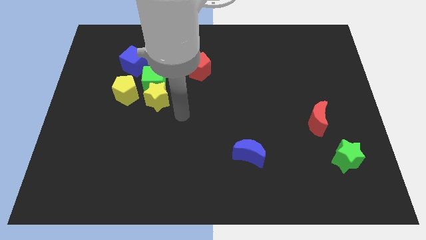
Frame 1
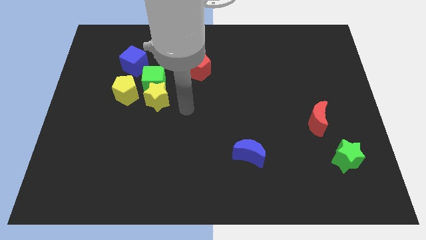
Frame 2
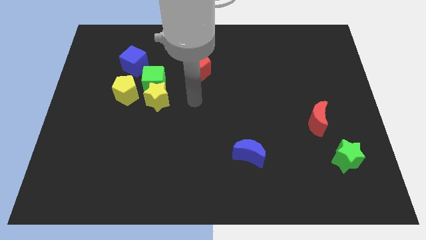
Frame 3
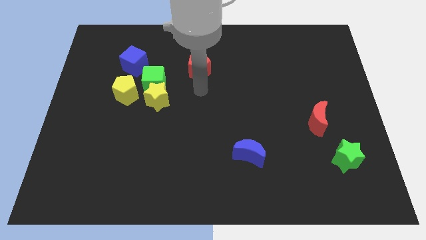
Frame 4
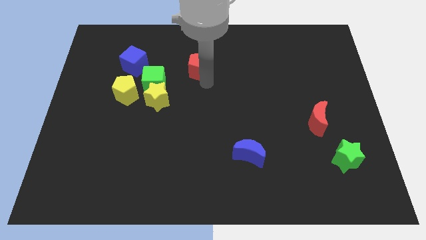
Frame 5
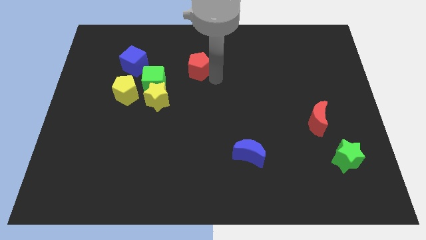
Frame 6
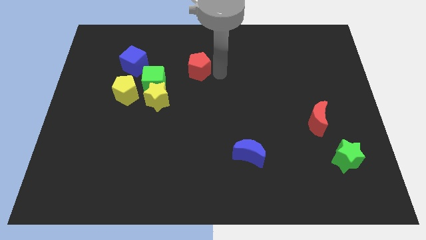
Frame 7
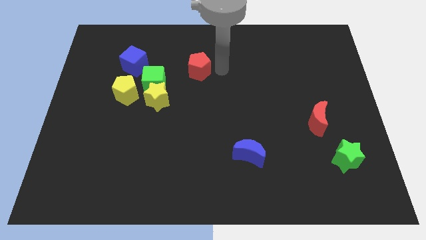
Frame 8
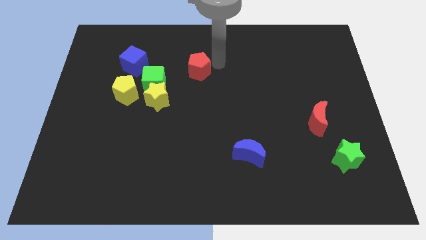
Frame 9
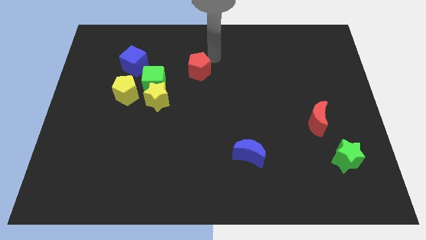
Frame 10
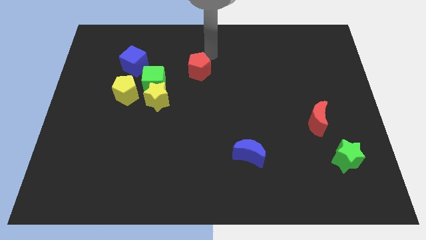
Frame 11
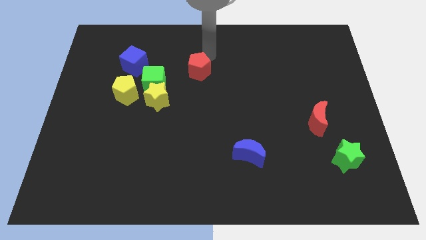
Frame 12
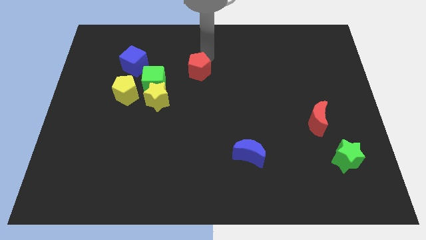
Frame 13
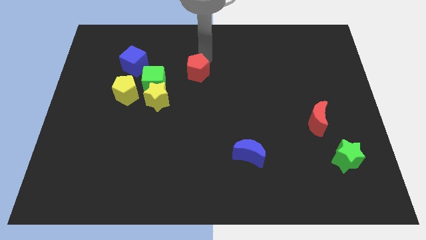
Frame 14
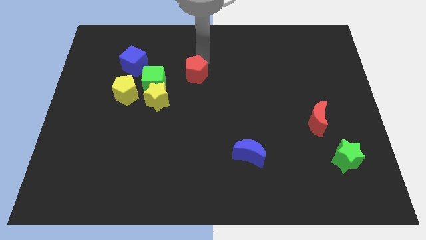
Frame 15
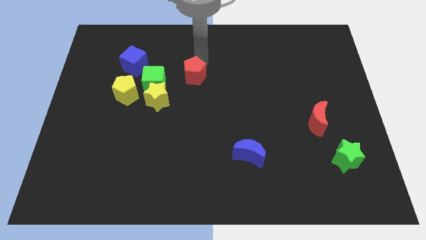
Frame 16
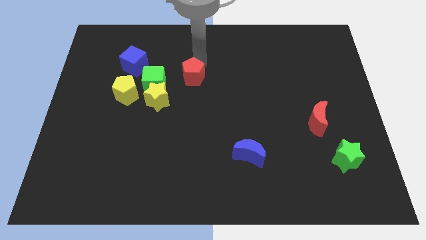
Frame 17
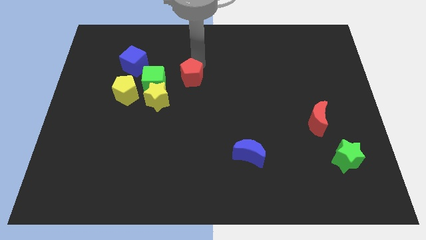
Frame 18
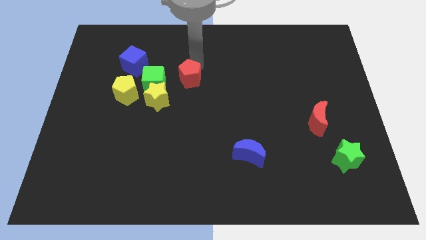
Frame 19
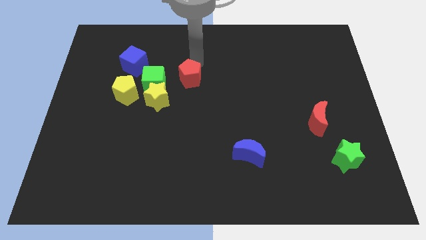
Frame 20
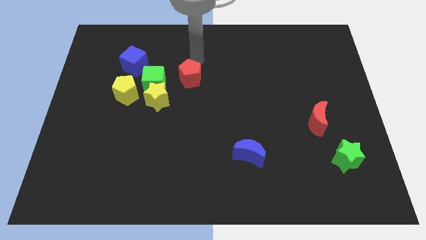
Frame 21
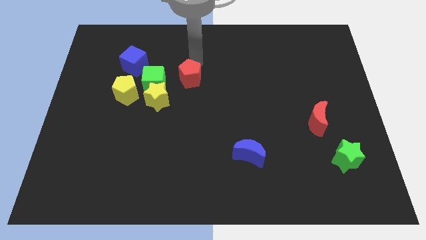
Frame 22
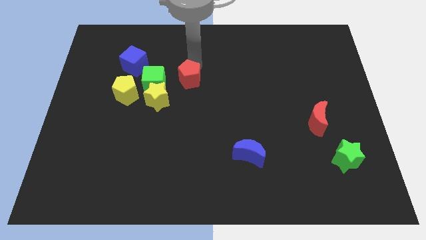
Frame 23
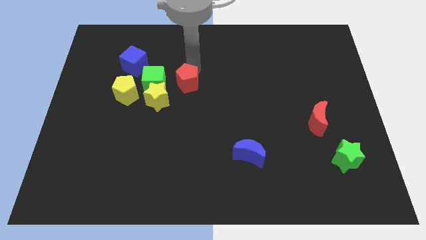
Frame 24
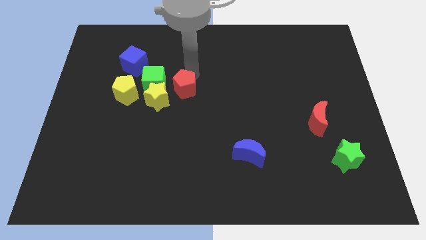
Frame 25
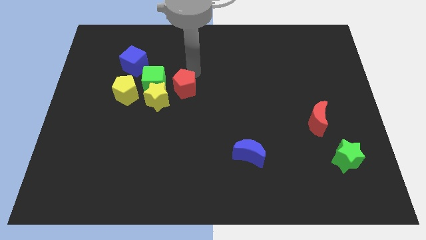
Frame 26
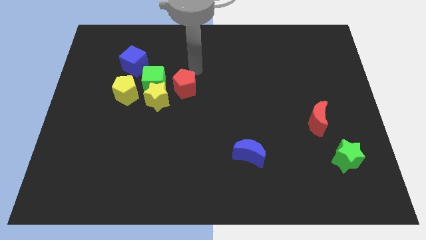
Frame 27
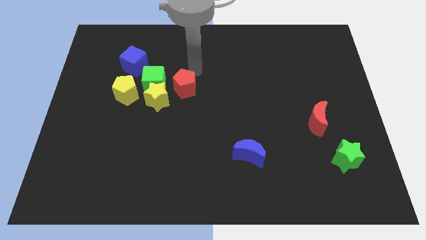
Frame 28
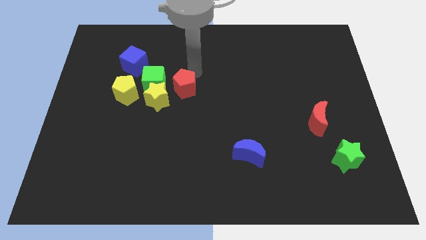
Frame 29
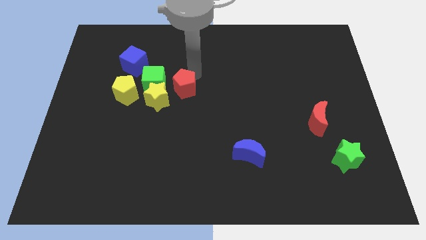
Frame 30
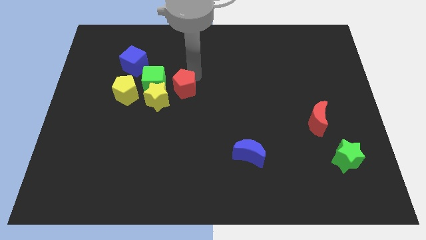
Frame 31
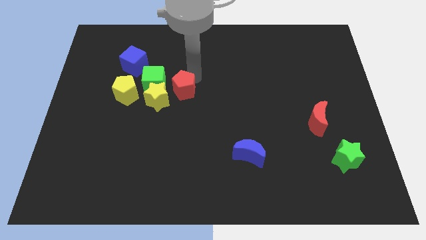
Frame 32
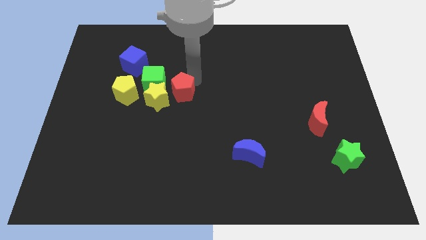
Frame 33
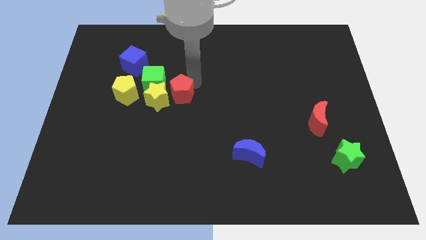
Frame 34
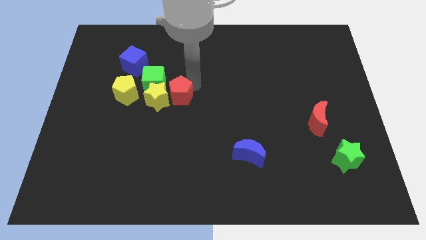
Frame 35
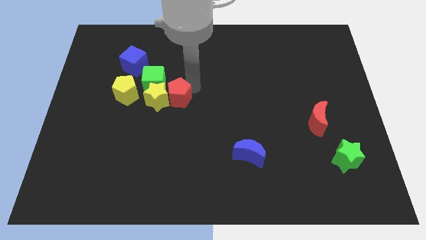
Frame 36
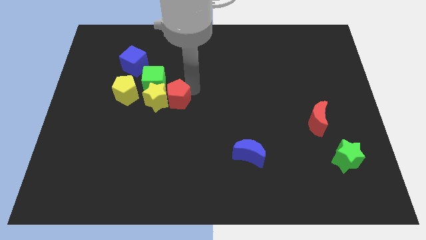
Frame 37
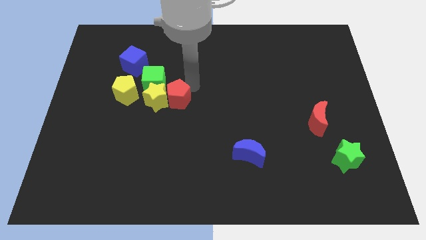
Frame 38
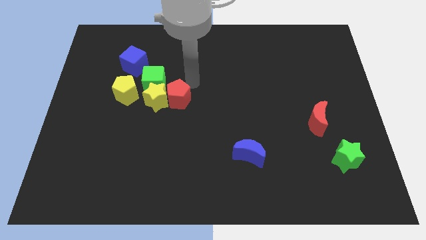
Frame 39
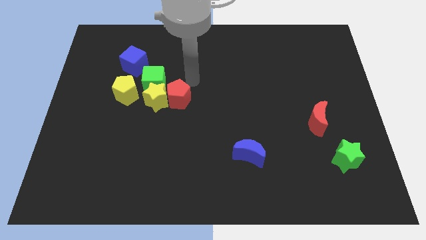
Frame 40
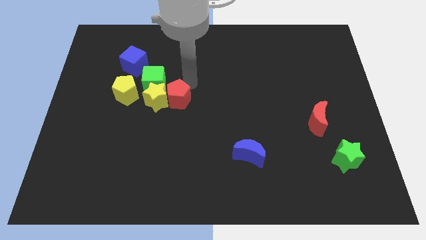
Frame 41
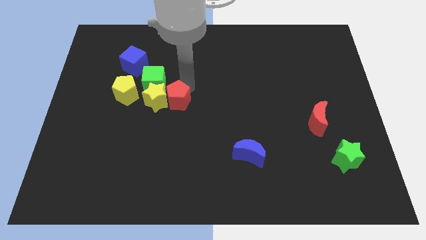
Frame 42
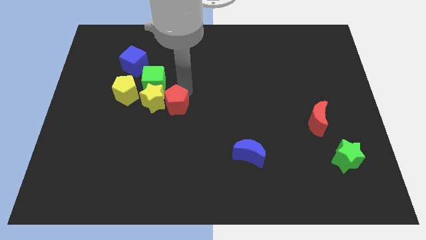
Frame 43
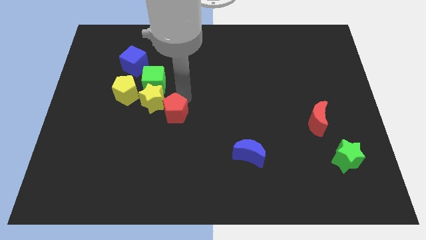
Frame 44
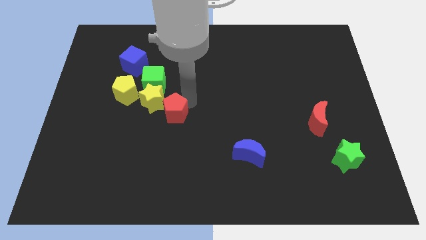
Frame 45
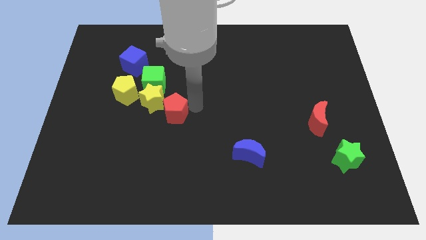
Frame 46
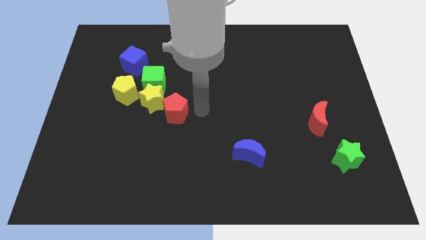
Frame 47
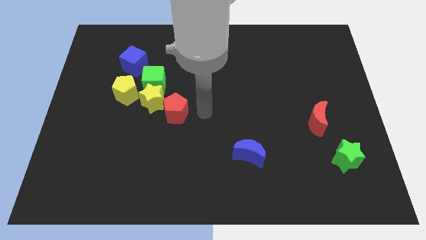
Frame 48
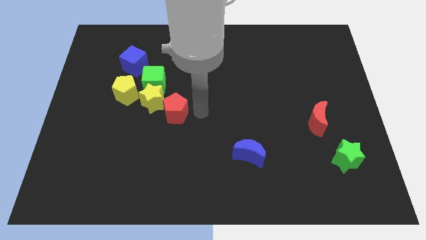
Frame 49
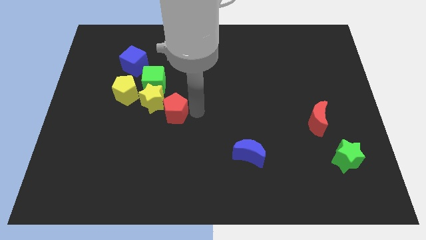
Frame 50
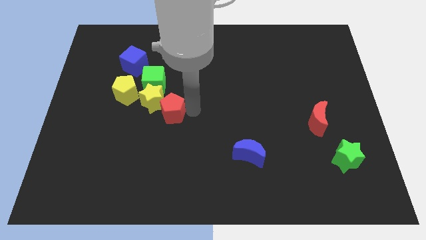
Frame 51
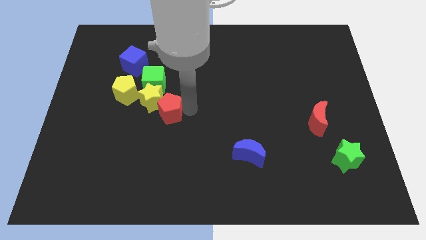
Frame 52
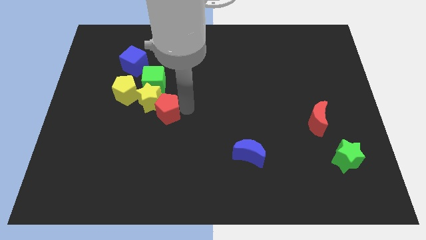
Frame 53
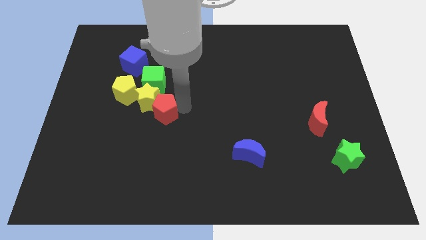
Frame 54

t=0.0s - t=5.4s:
push the red pentagon to the bottom right of the yellow pentagon

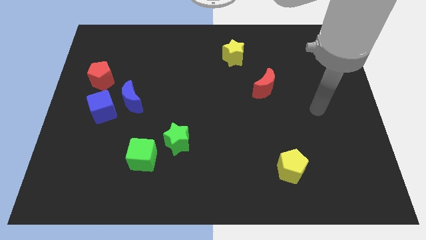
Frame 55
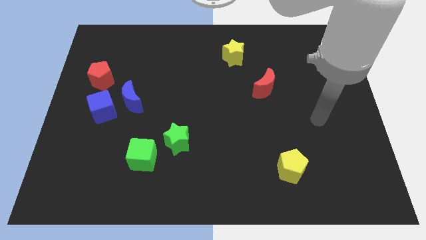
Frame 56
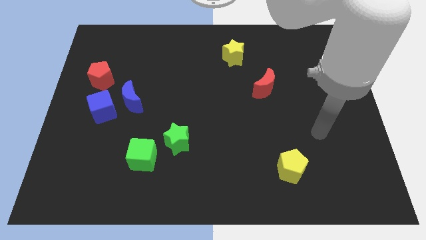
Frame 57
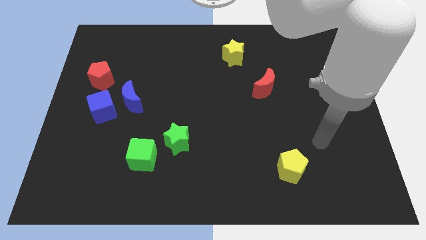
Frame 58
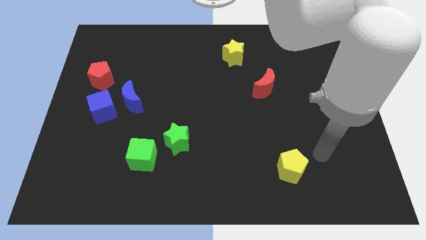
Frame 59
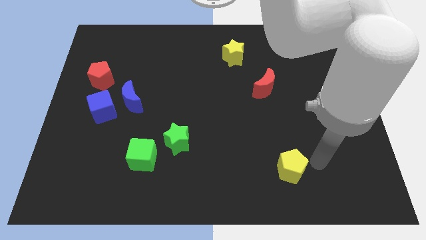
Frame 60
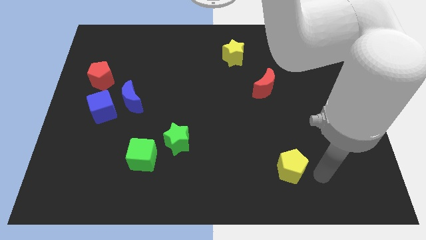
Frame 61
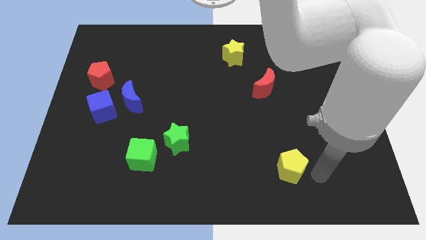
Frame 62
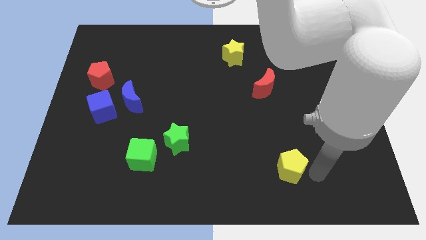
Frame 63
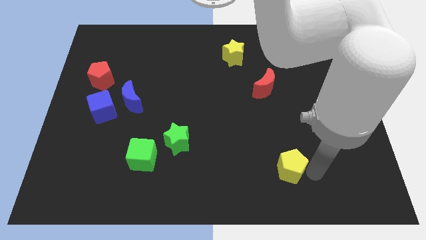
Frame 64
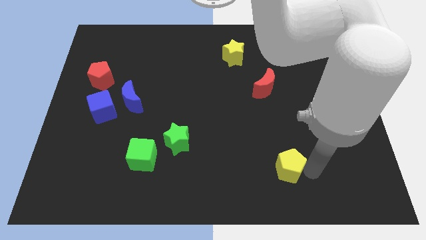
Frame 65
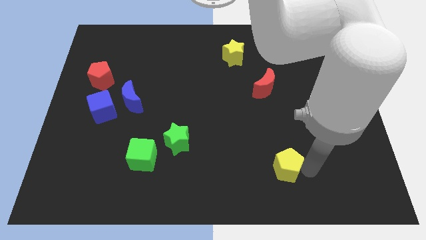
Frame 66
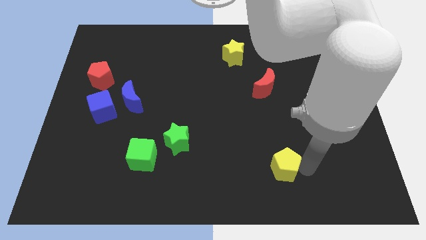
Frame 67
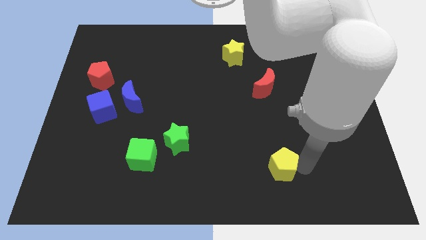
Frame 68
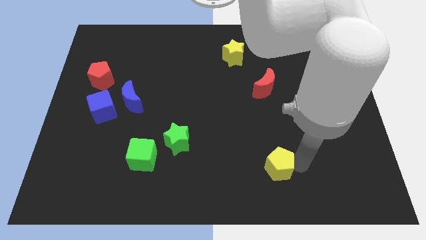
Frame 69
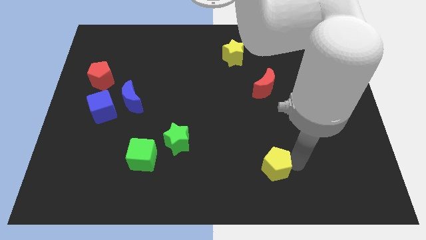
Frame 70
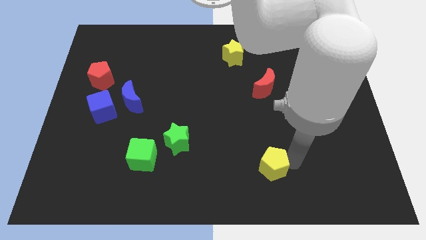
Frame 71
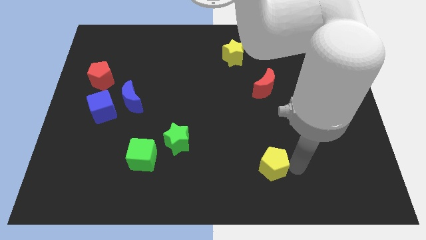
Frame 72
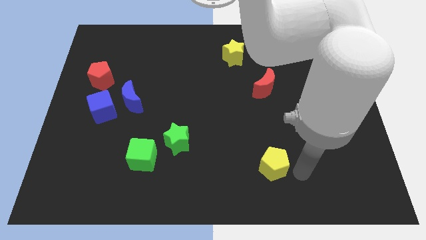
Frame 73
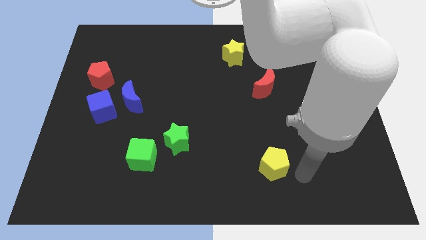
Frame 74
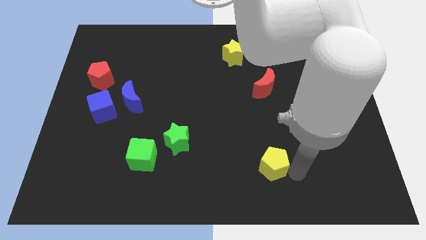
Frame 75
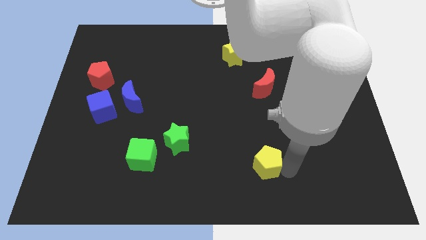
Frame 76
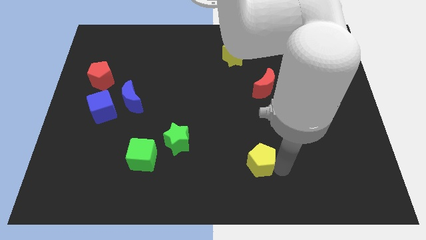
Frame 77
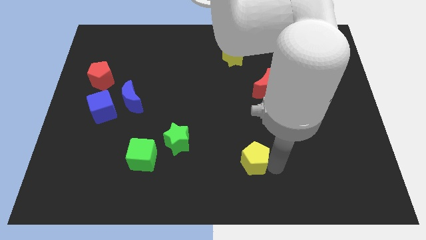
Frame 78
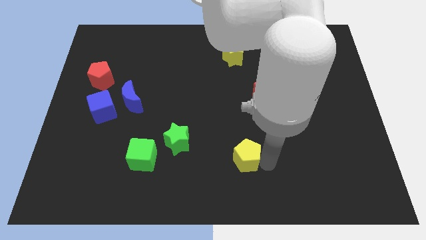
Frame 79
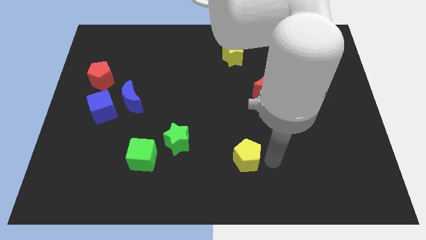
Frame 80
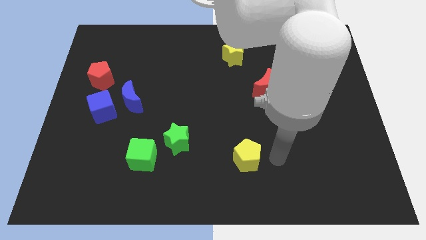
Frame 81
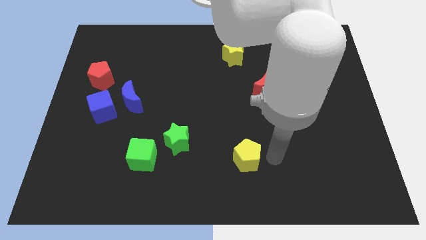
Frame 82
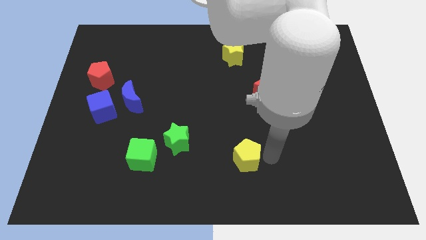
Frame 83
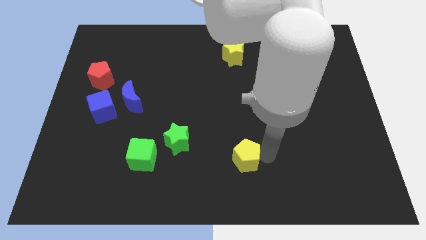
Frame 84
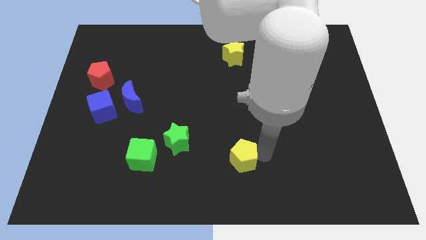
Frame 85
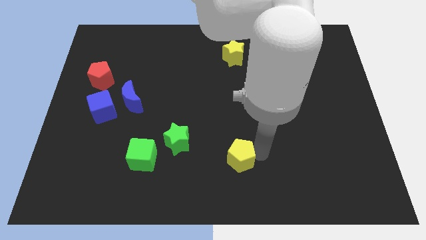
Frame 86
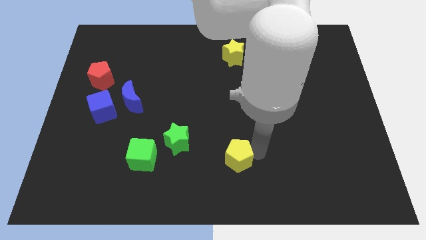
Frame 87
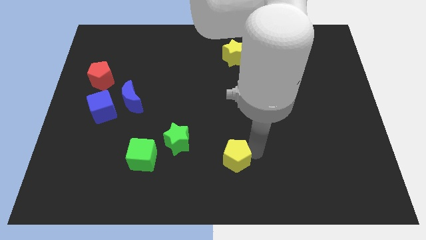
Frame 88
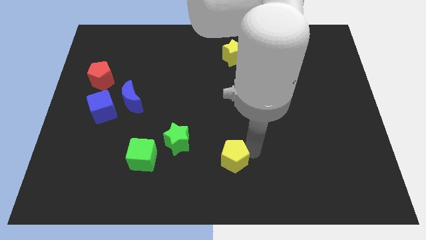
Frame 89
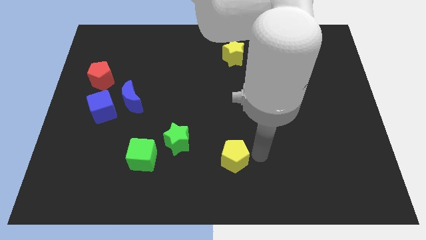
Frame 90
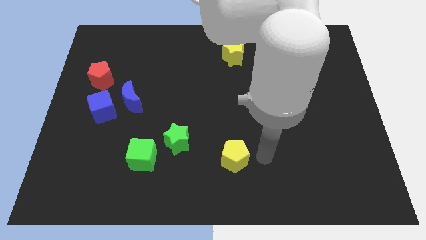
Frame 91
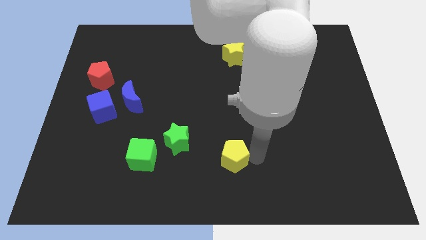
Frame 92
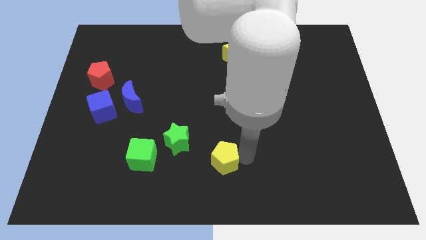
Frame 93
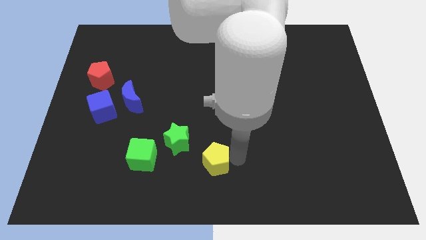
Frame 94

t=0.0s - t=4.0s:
push the yellow pentagon to the right side of the green cube
